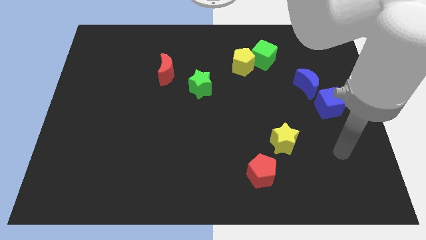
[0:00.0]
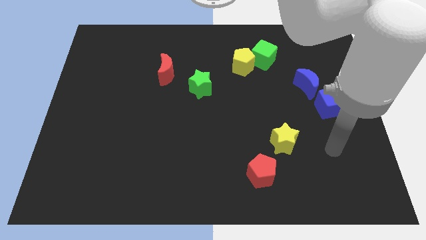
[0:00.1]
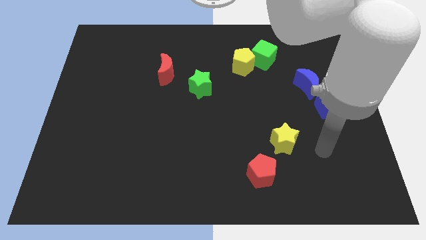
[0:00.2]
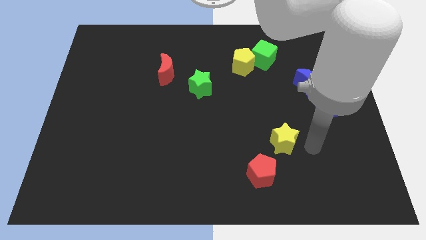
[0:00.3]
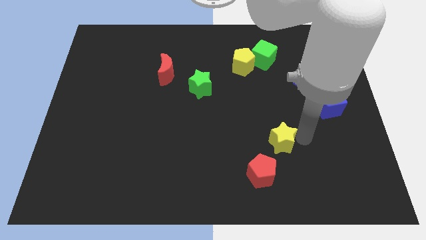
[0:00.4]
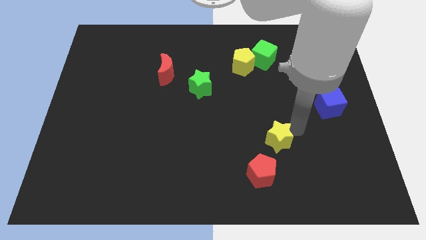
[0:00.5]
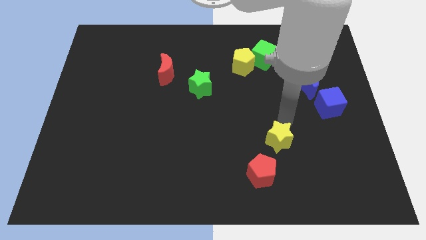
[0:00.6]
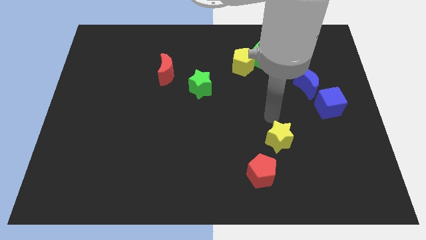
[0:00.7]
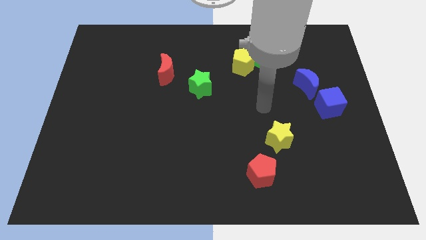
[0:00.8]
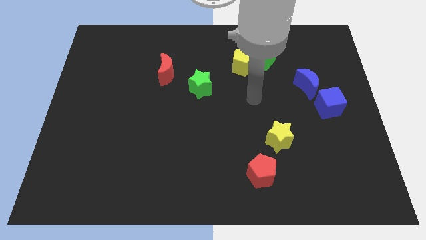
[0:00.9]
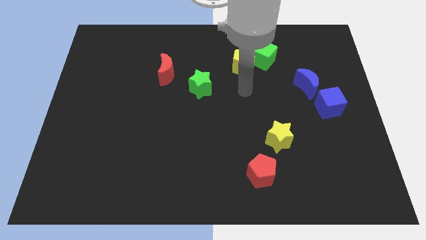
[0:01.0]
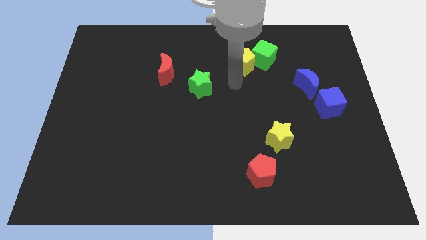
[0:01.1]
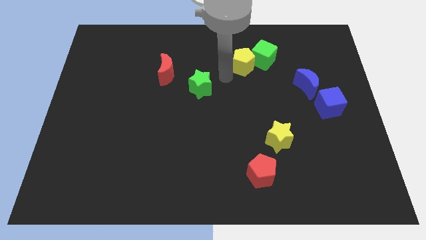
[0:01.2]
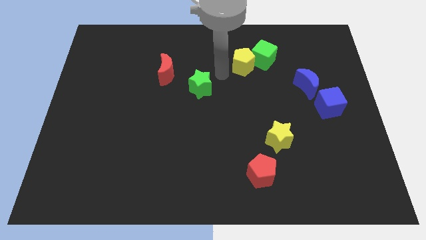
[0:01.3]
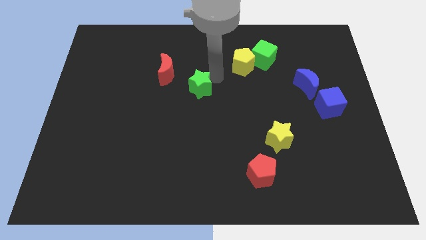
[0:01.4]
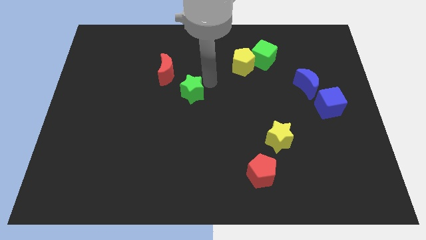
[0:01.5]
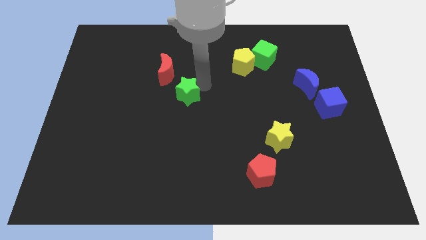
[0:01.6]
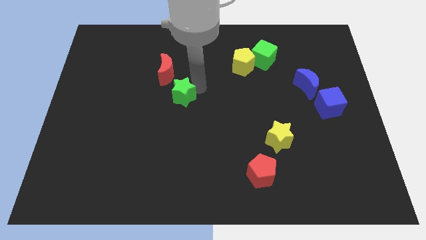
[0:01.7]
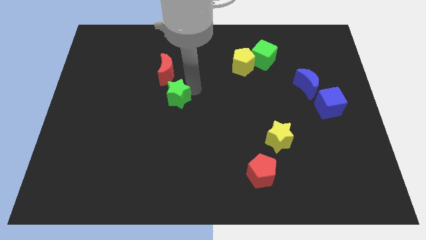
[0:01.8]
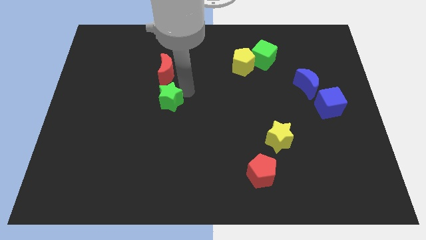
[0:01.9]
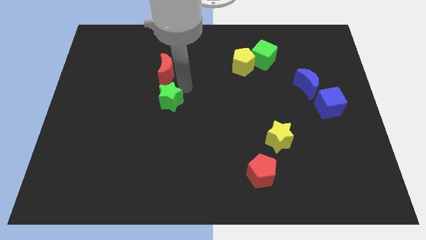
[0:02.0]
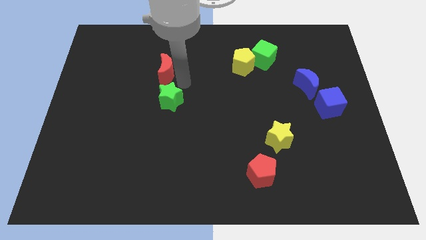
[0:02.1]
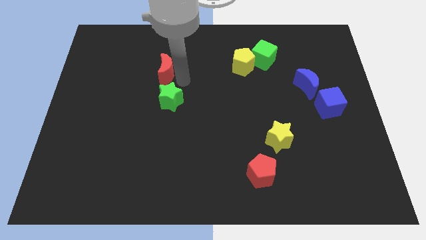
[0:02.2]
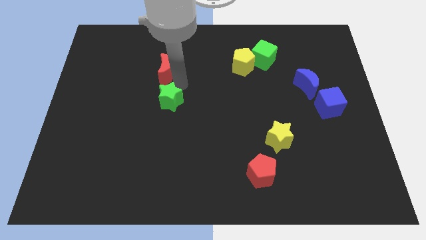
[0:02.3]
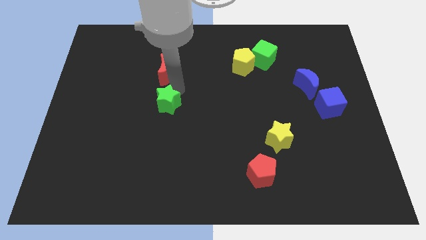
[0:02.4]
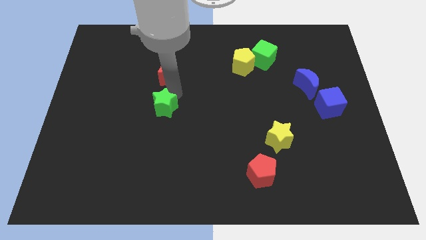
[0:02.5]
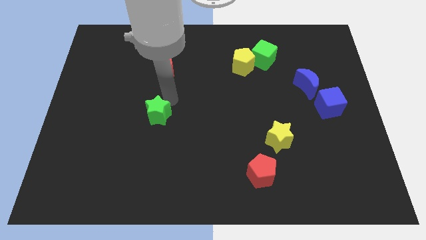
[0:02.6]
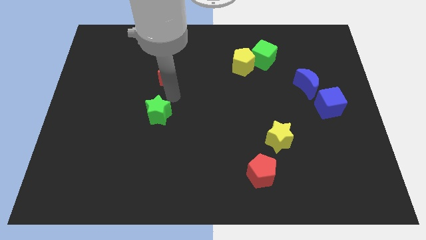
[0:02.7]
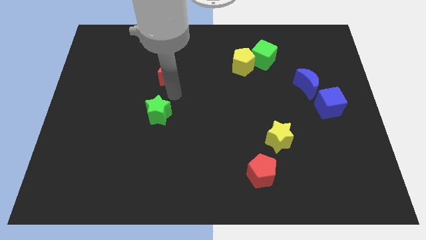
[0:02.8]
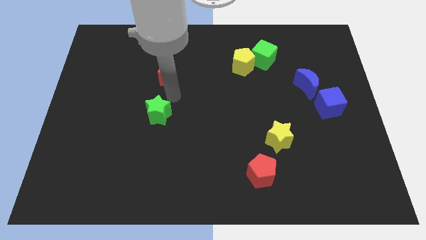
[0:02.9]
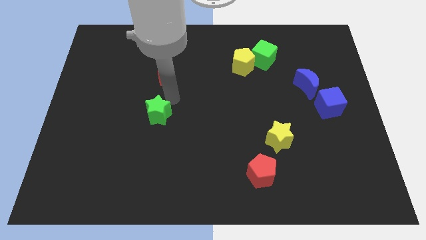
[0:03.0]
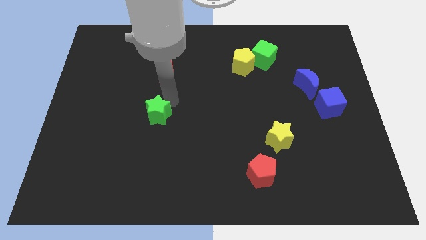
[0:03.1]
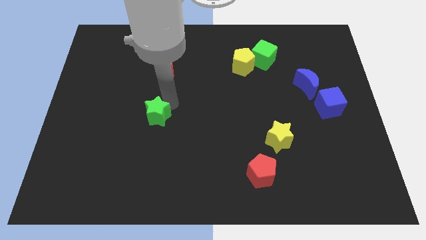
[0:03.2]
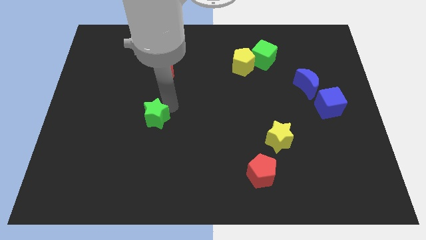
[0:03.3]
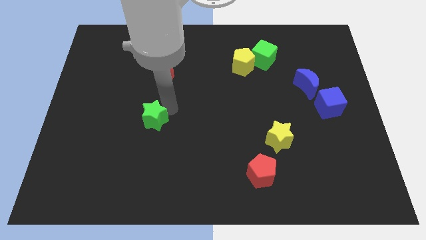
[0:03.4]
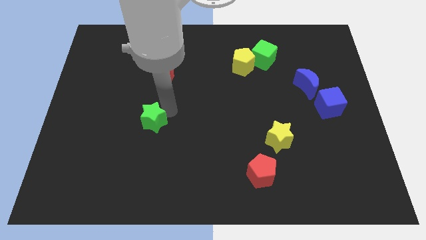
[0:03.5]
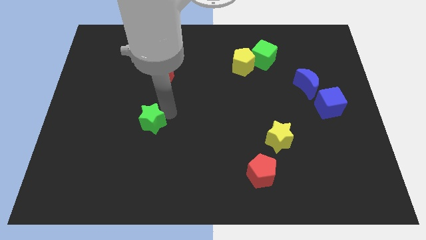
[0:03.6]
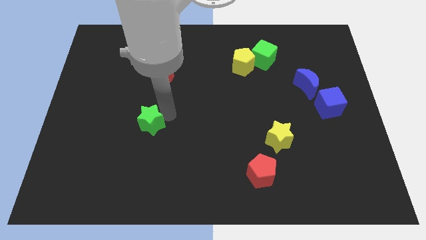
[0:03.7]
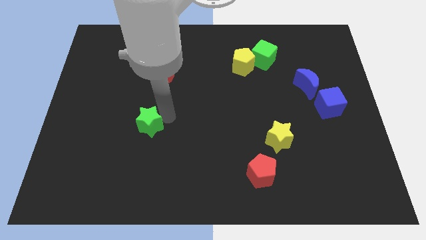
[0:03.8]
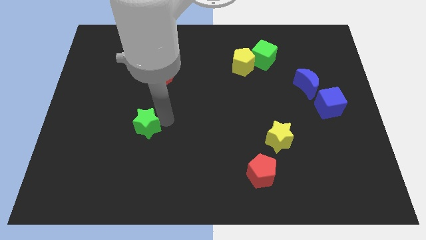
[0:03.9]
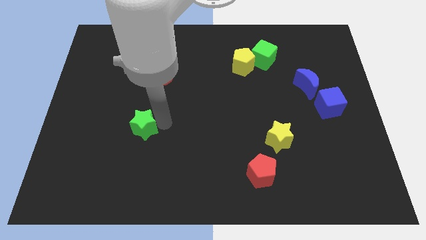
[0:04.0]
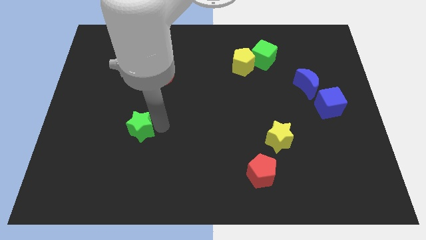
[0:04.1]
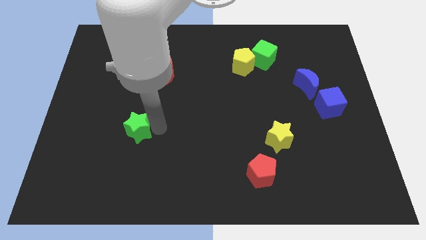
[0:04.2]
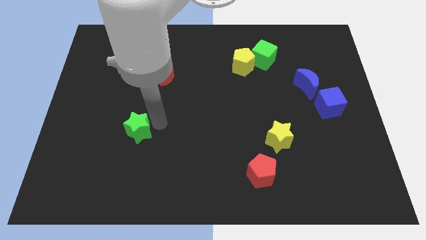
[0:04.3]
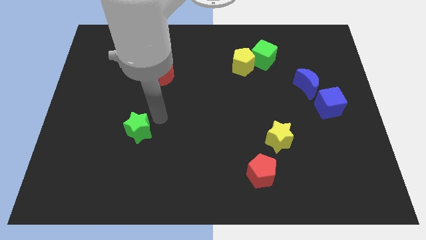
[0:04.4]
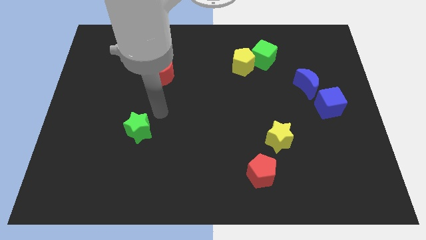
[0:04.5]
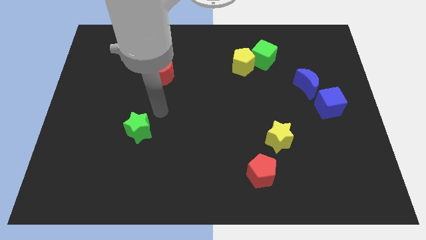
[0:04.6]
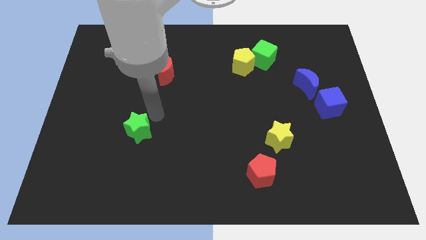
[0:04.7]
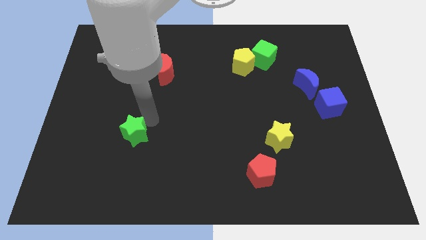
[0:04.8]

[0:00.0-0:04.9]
push the green star diagonally down and left

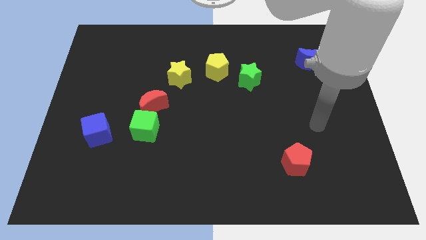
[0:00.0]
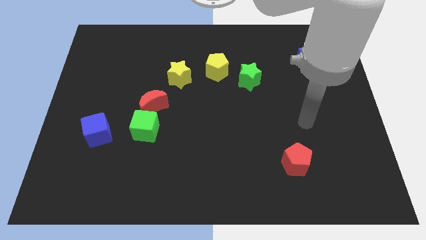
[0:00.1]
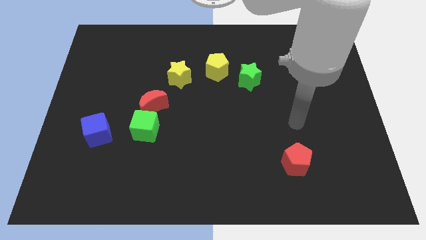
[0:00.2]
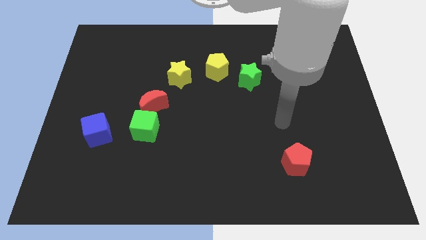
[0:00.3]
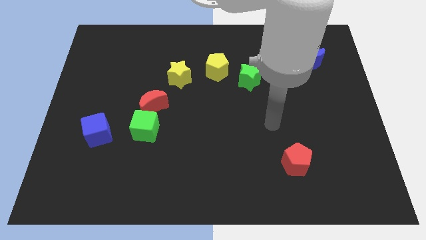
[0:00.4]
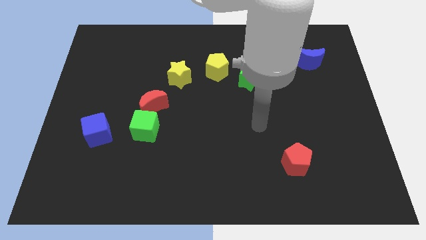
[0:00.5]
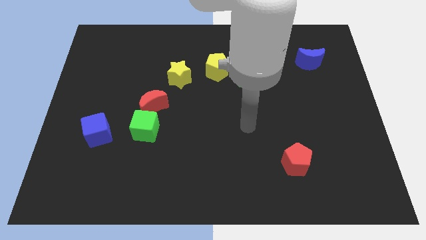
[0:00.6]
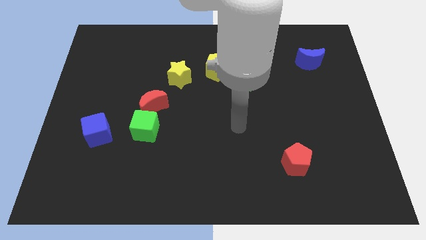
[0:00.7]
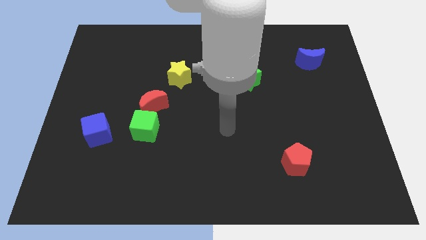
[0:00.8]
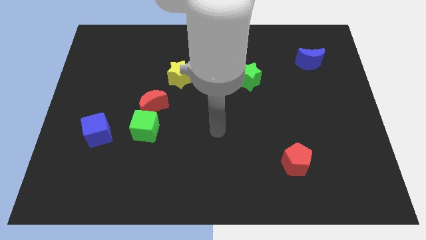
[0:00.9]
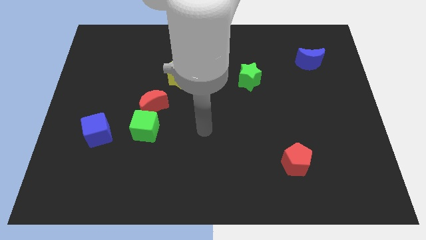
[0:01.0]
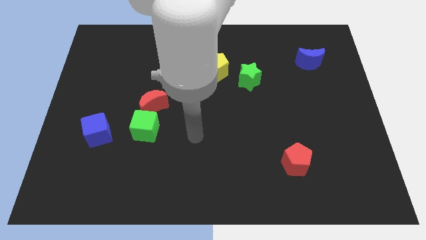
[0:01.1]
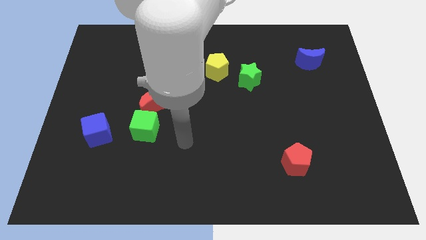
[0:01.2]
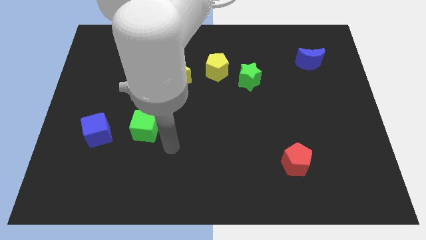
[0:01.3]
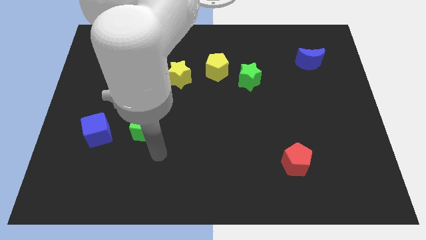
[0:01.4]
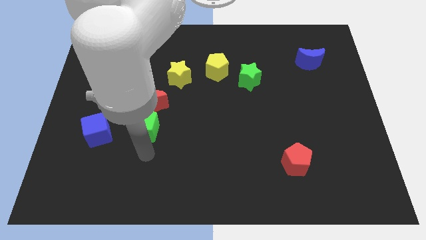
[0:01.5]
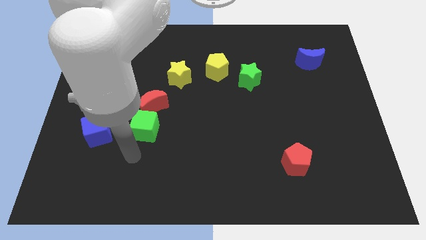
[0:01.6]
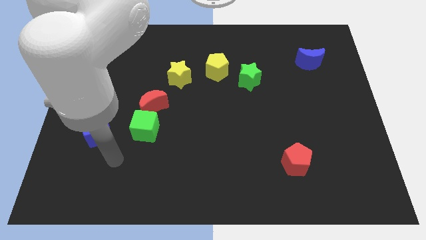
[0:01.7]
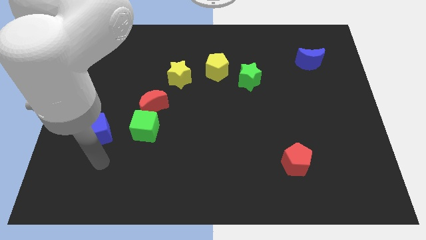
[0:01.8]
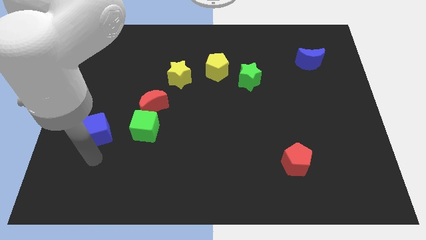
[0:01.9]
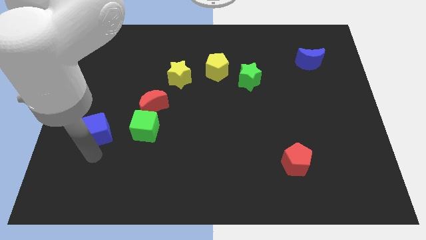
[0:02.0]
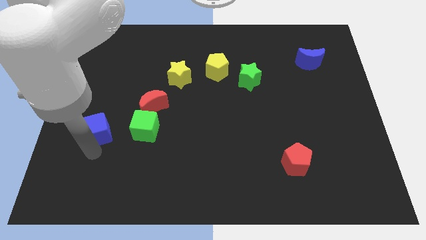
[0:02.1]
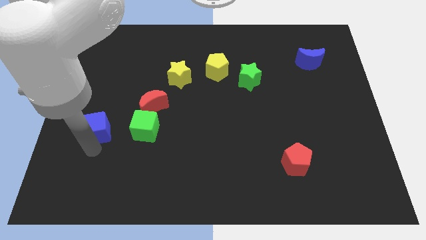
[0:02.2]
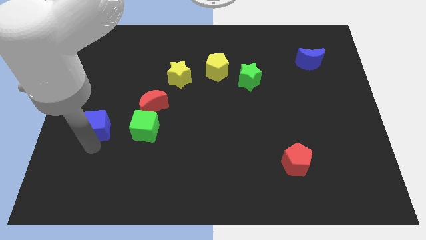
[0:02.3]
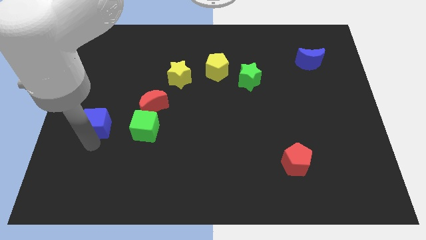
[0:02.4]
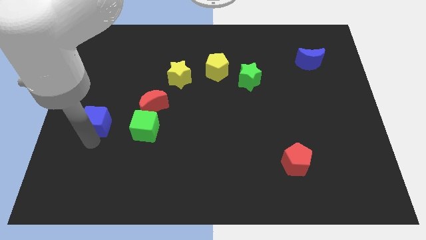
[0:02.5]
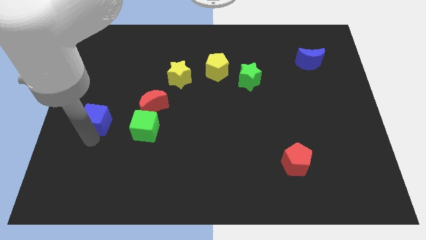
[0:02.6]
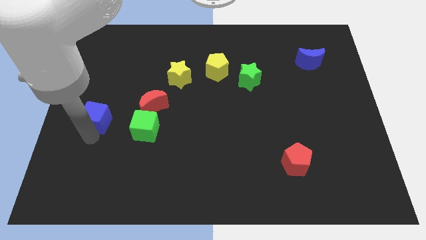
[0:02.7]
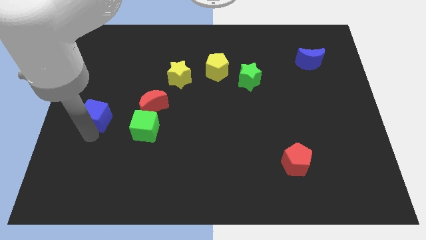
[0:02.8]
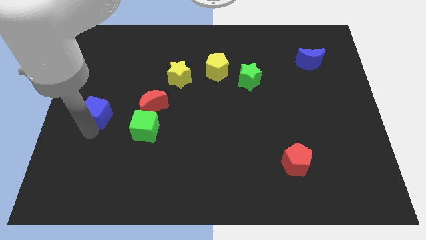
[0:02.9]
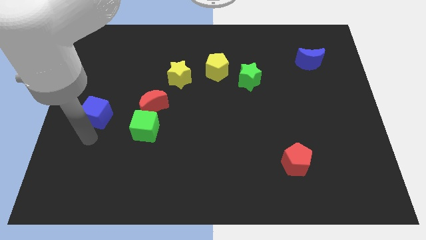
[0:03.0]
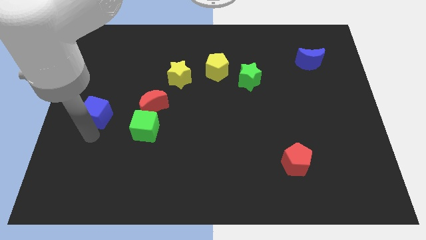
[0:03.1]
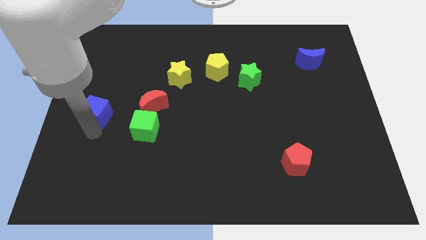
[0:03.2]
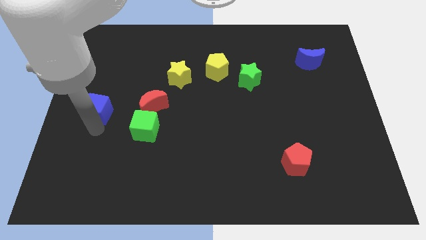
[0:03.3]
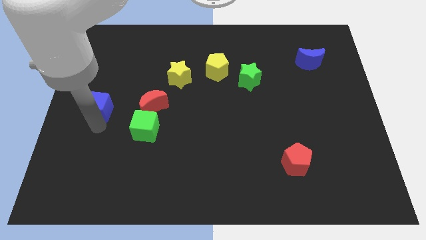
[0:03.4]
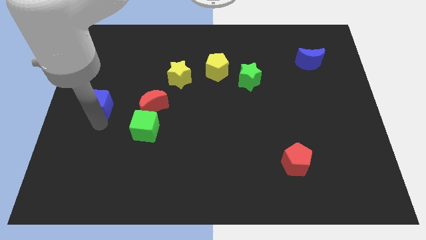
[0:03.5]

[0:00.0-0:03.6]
slide the blue cube up a little
